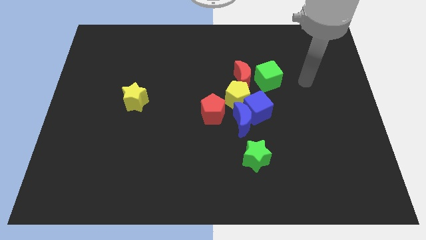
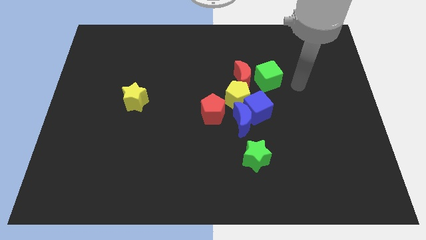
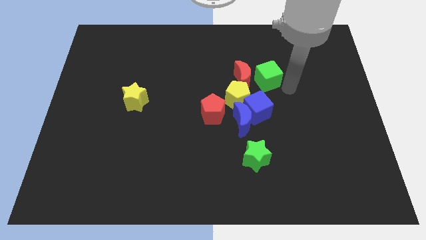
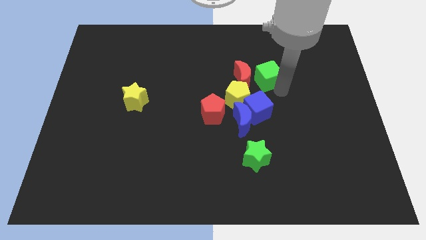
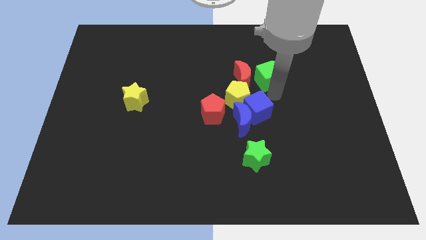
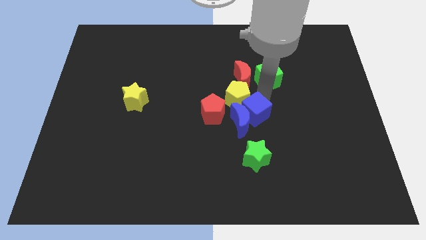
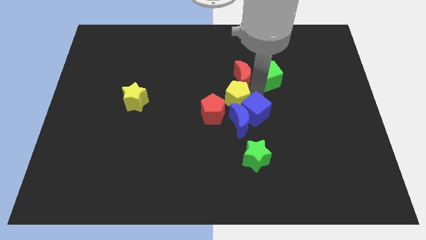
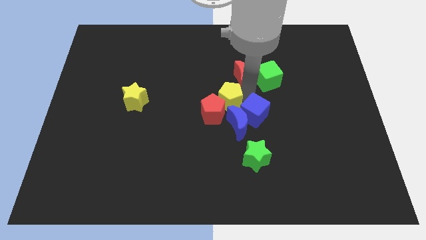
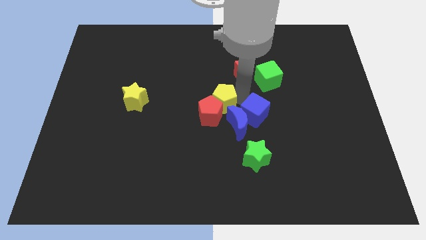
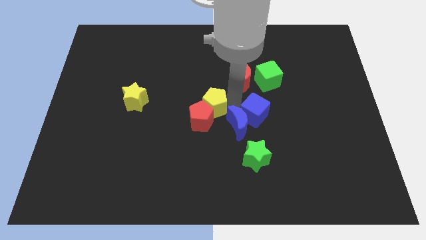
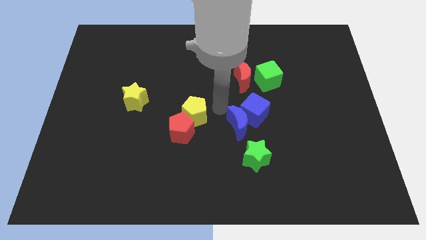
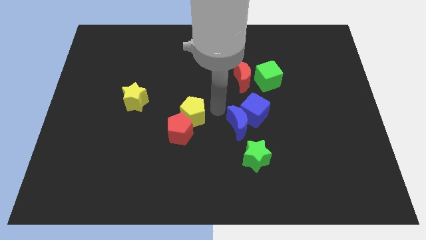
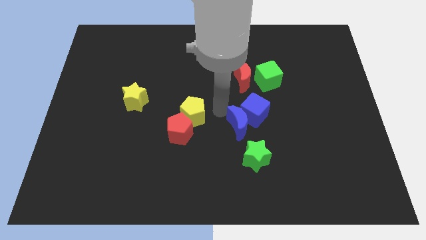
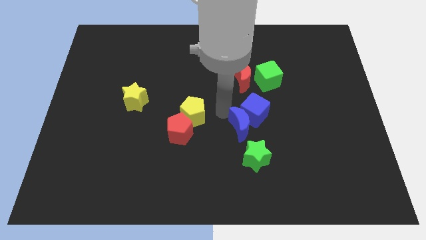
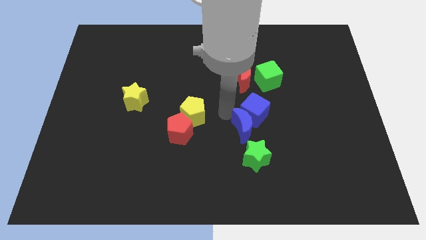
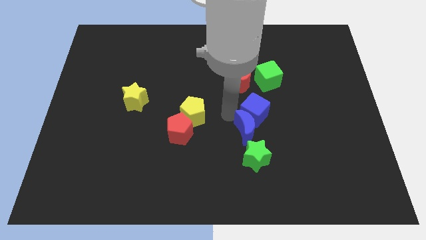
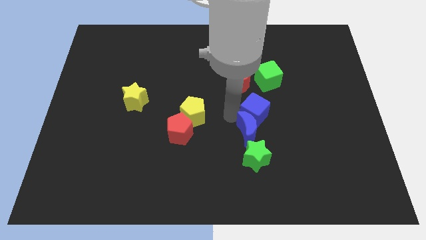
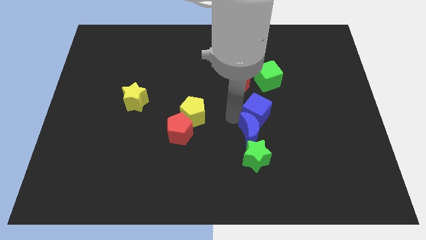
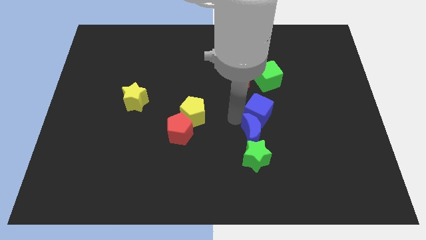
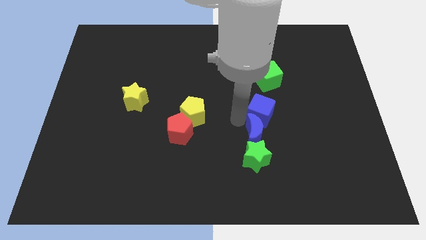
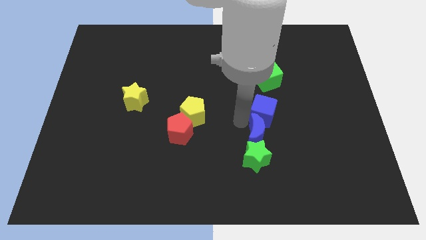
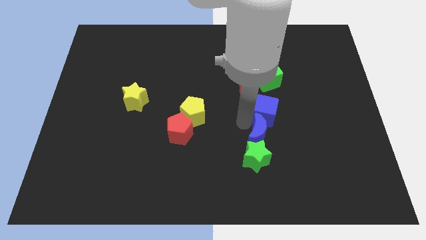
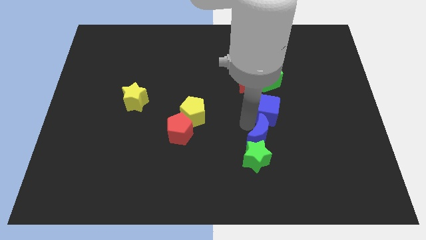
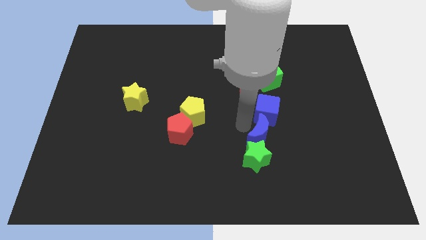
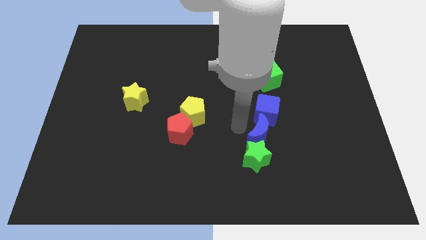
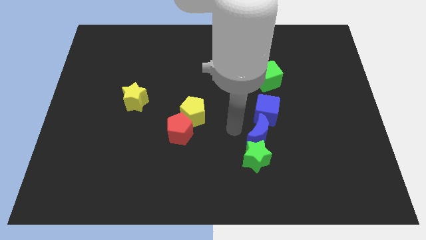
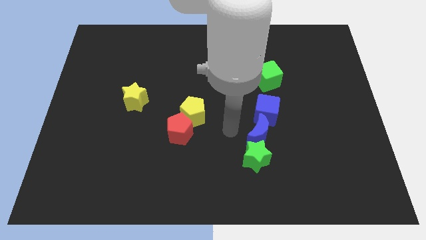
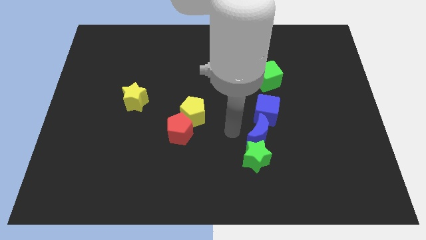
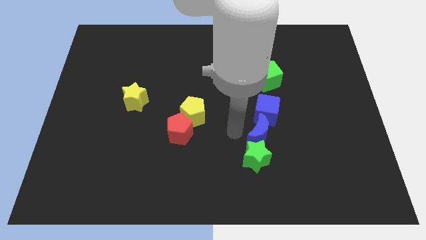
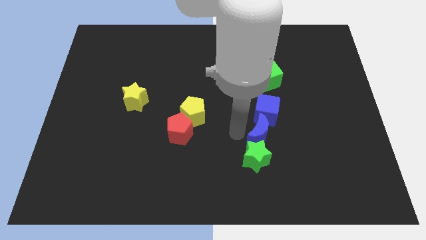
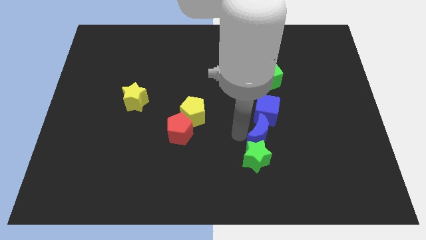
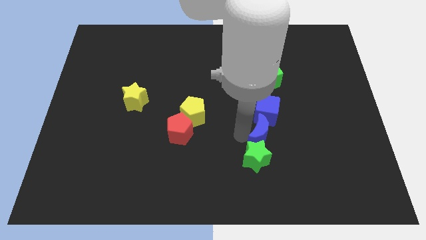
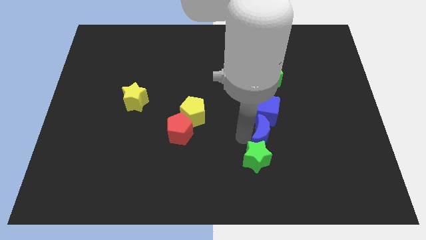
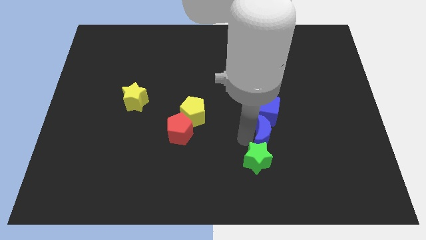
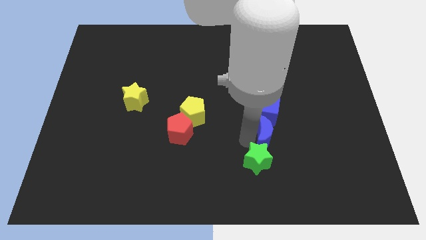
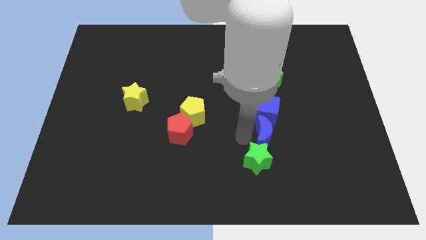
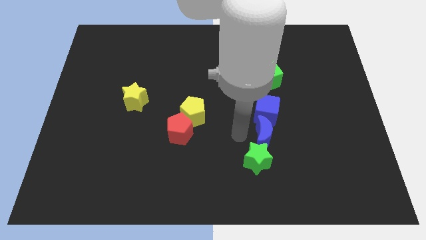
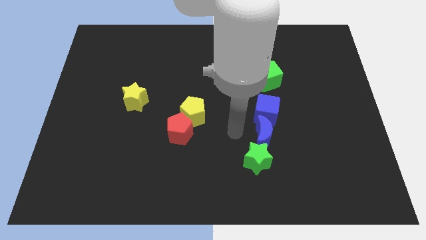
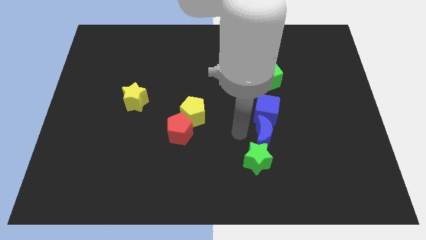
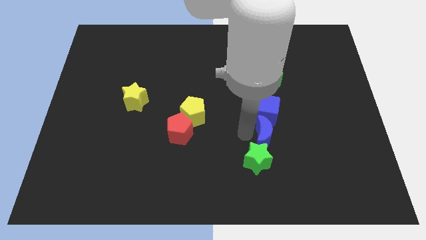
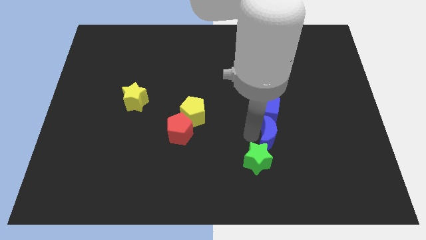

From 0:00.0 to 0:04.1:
move the blue moon away from the group of blocks

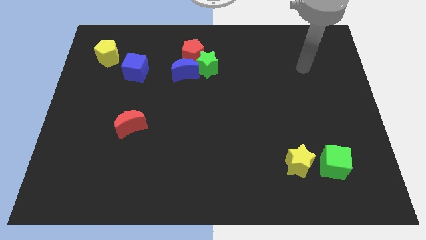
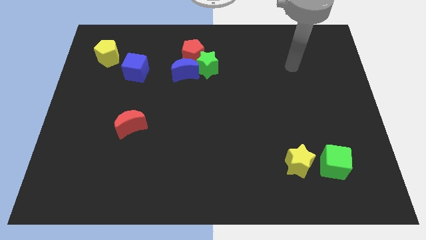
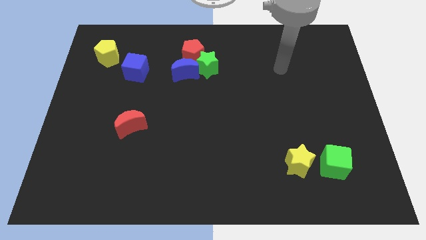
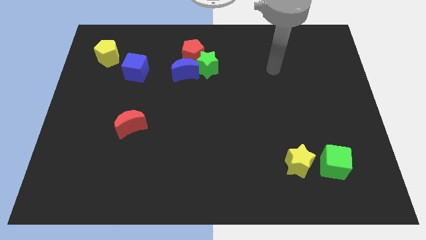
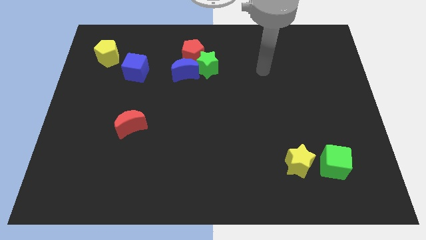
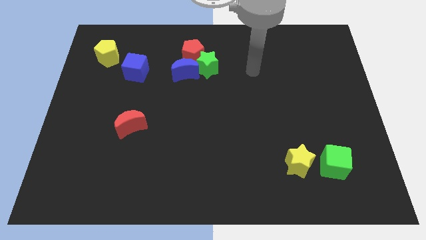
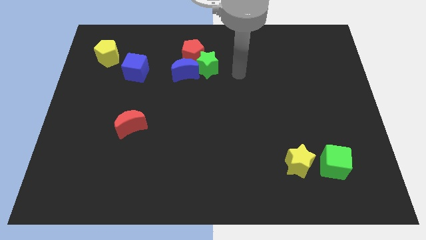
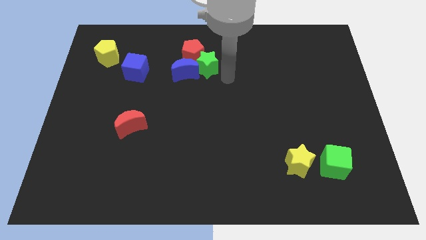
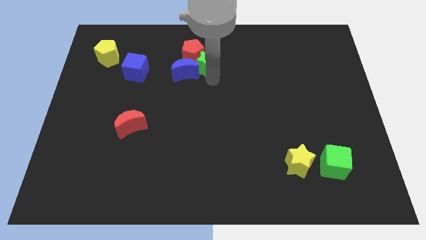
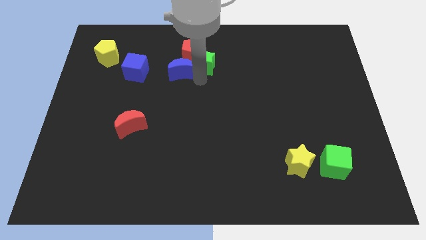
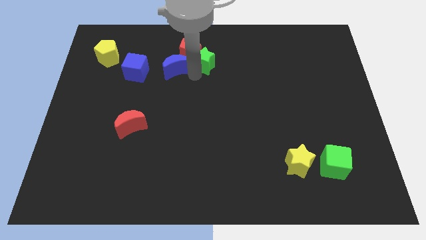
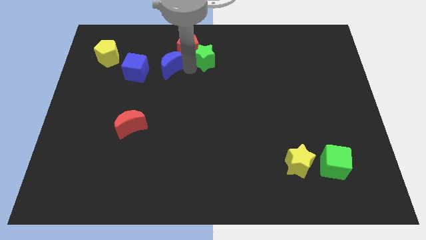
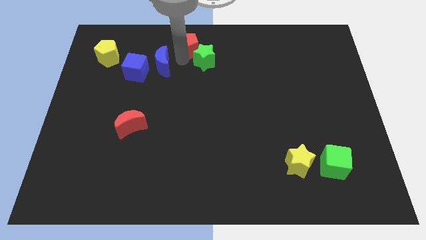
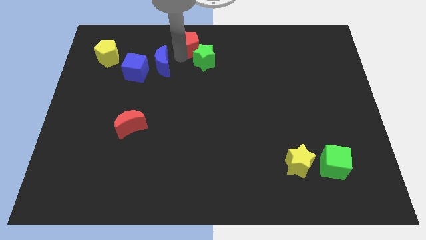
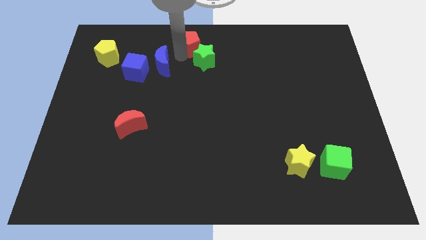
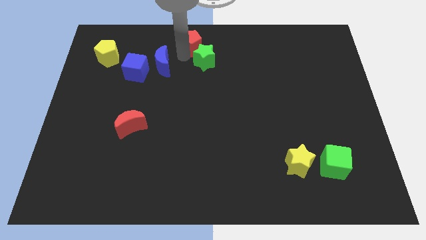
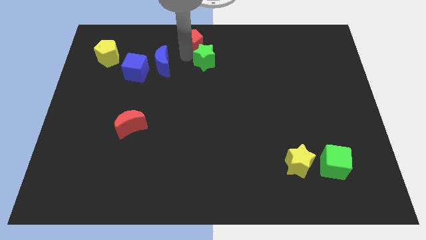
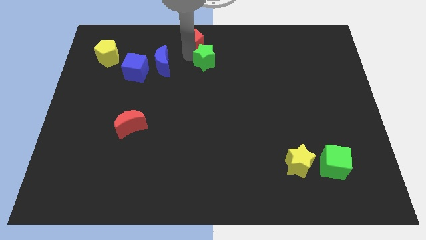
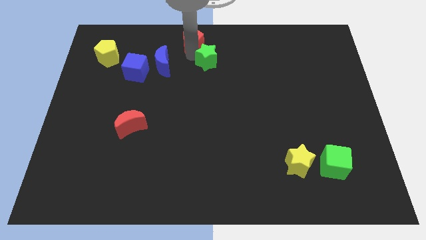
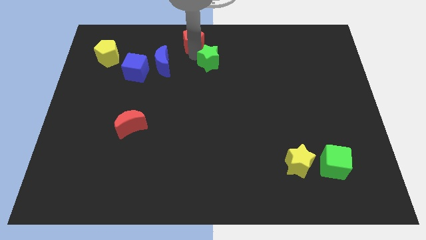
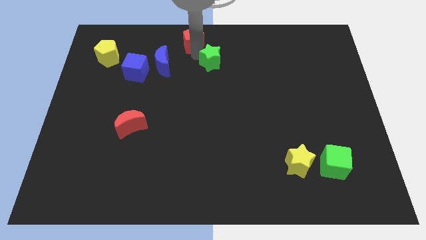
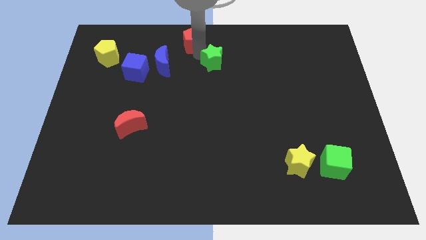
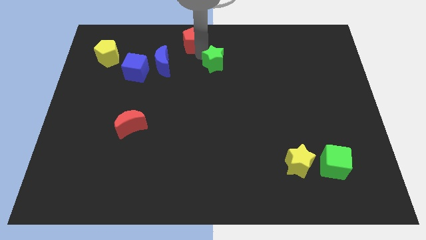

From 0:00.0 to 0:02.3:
pull the green star apart from the blue moon and red pentagon

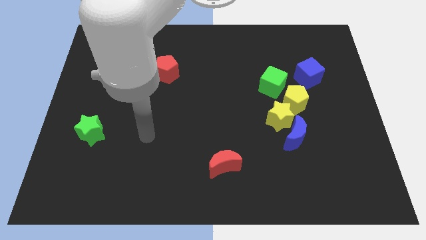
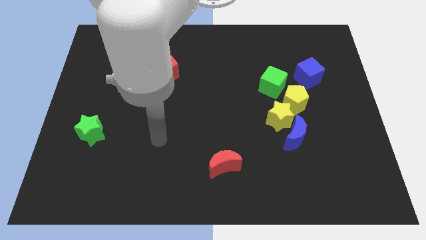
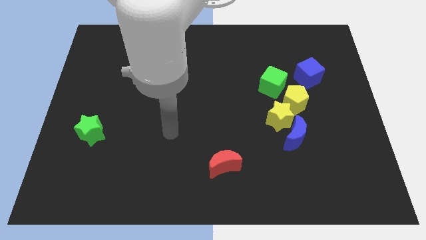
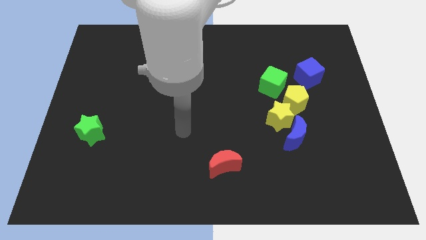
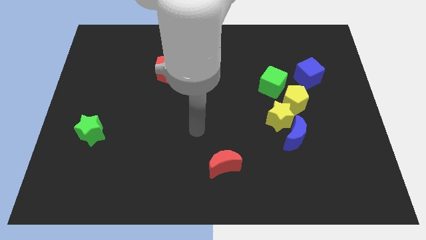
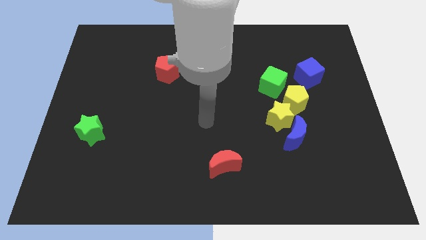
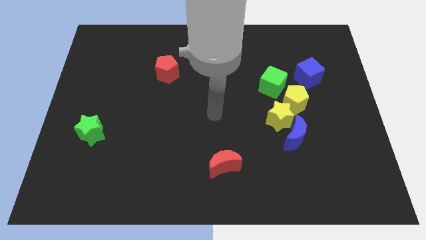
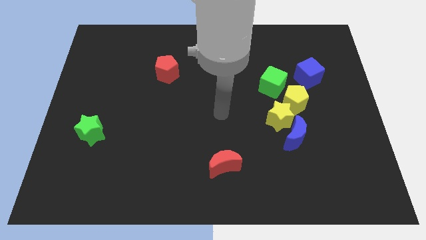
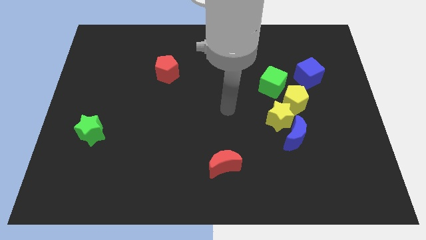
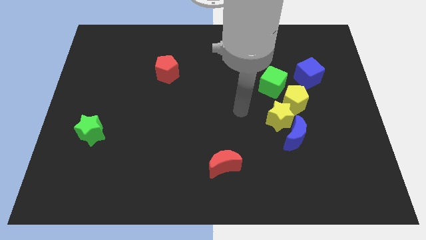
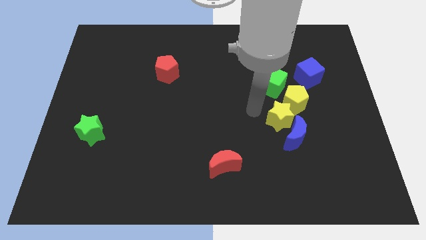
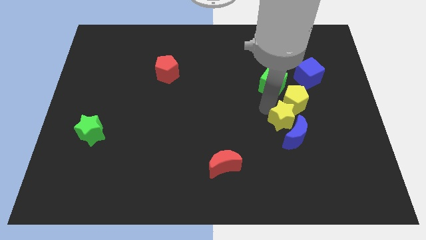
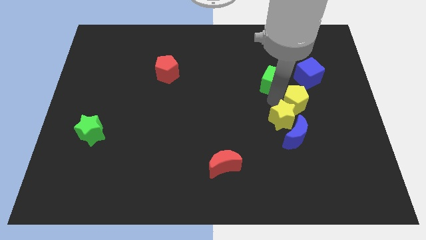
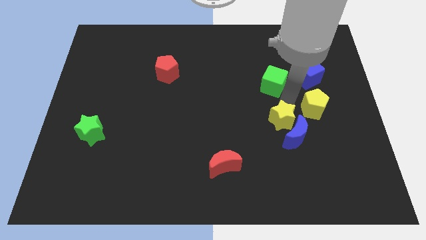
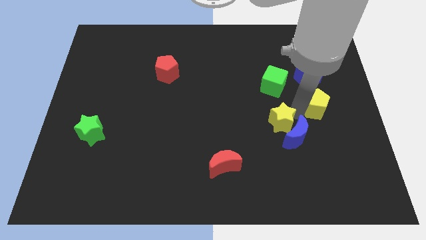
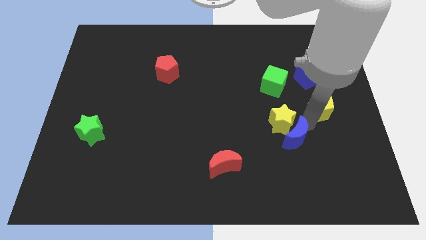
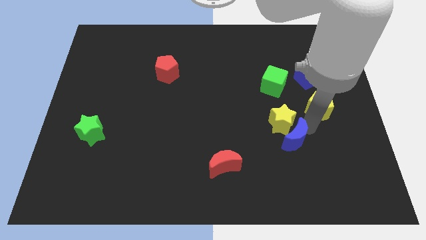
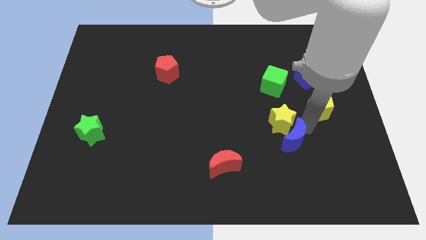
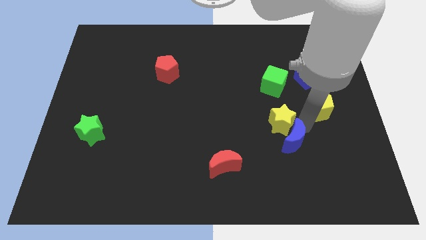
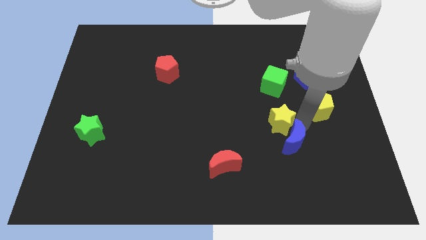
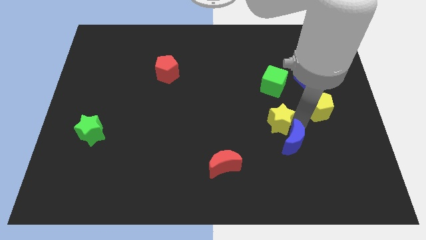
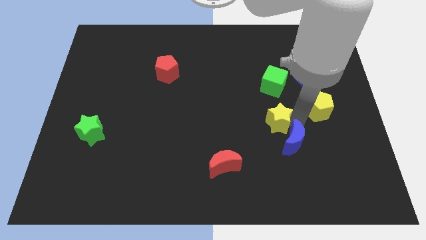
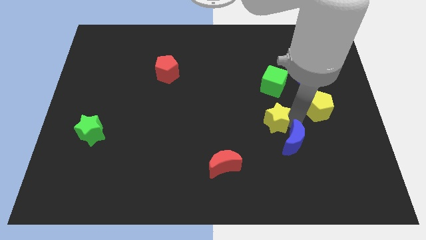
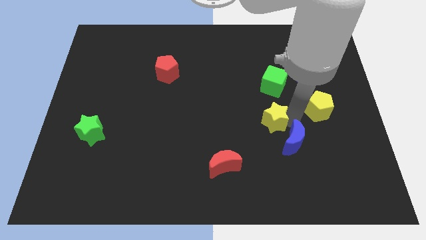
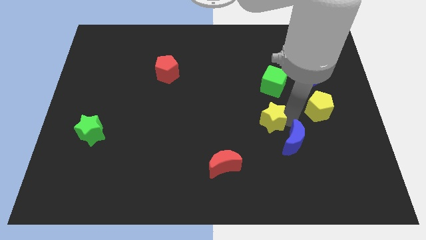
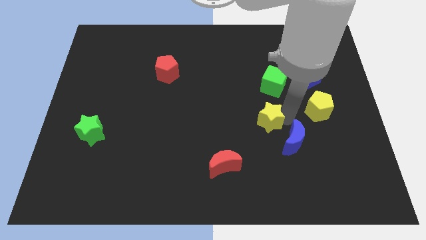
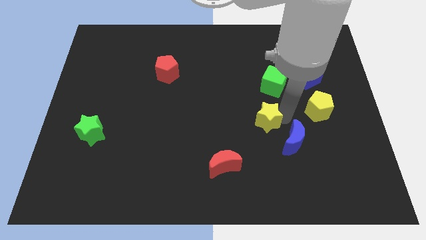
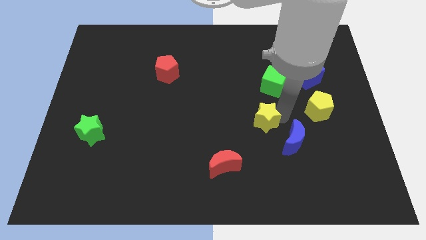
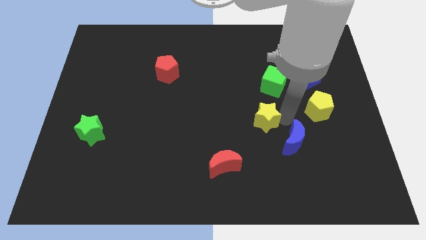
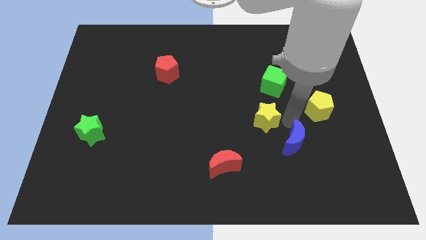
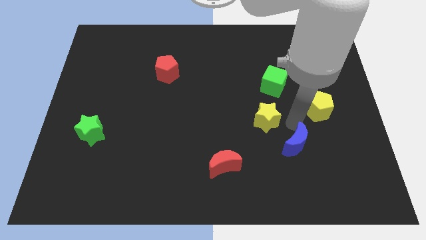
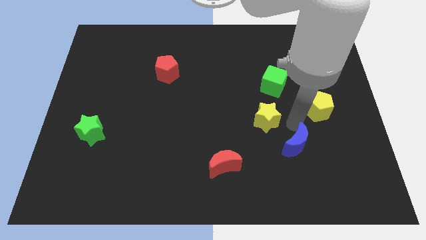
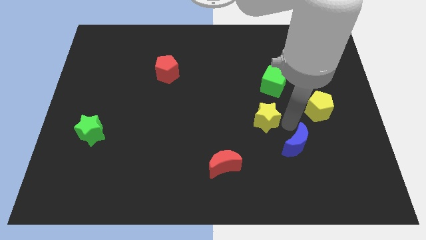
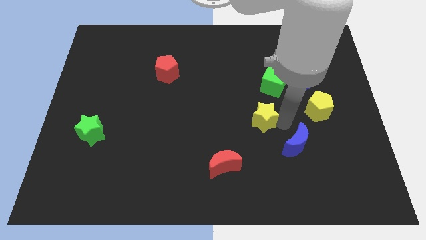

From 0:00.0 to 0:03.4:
separate the yellow star from the blue moon and yellow pentagon
